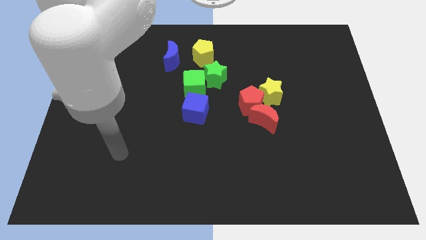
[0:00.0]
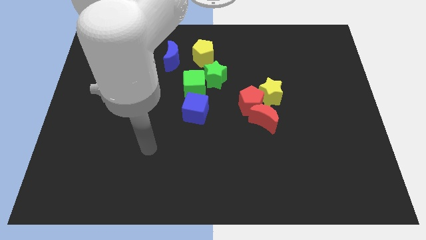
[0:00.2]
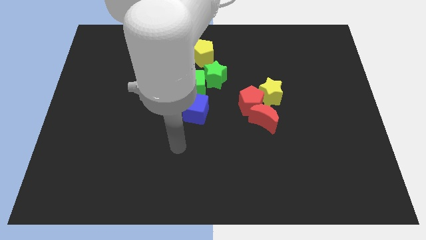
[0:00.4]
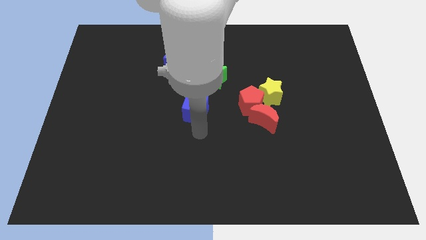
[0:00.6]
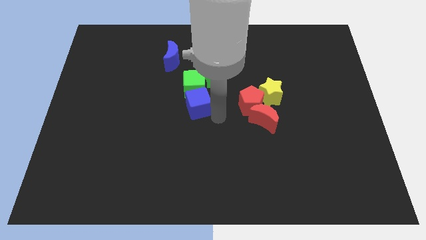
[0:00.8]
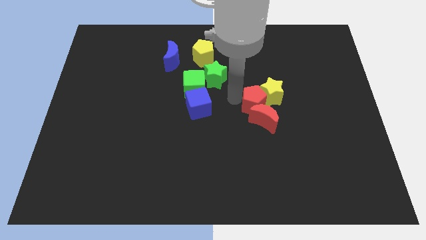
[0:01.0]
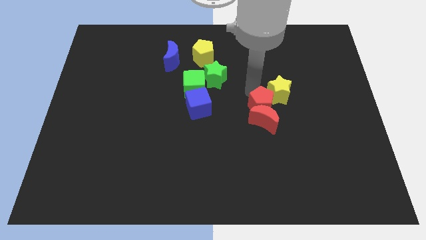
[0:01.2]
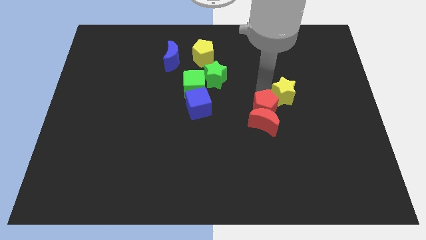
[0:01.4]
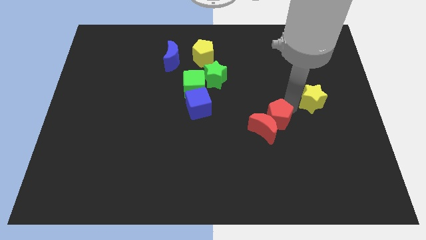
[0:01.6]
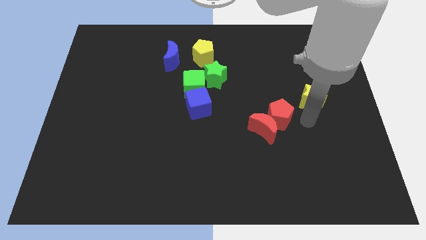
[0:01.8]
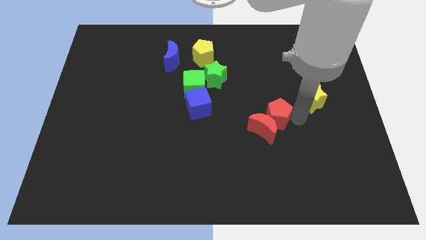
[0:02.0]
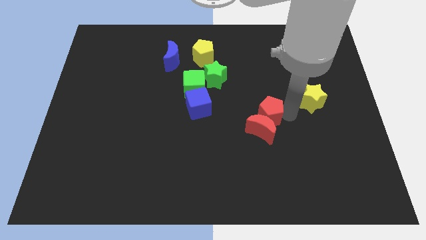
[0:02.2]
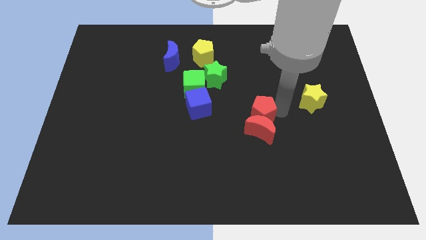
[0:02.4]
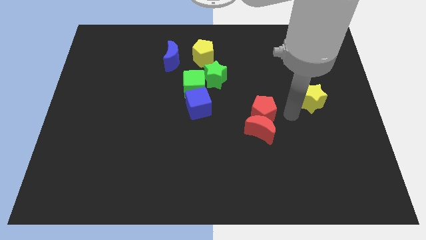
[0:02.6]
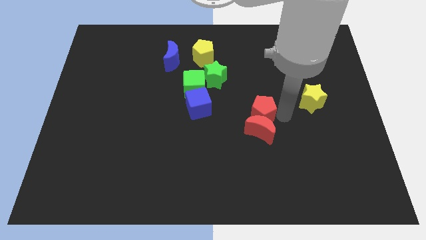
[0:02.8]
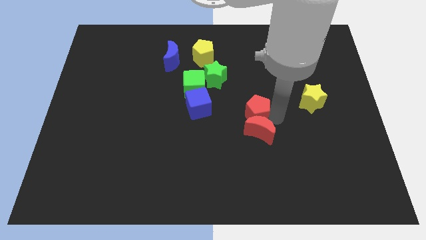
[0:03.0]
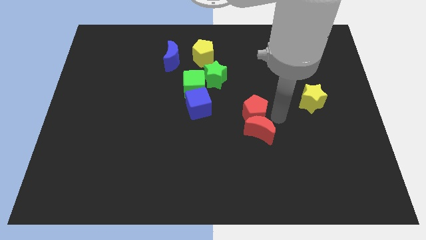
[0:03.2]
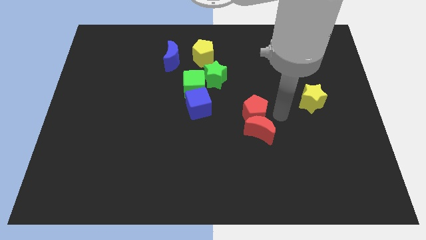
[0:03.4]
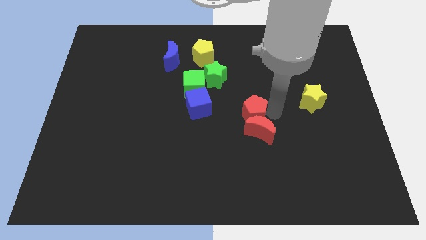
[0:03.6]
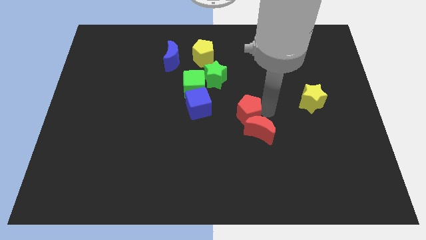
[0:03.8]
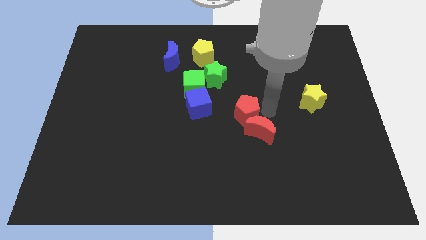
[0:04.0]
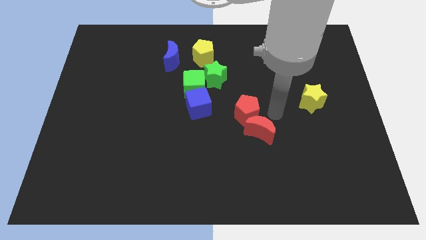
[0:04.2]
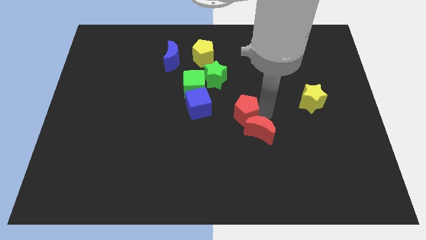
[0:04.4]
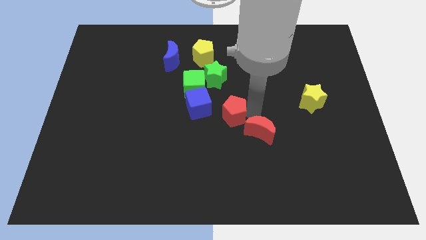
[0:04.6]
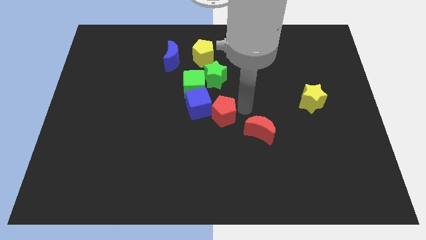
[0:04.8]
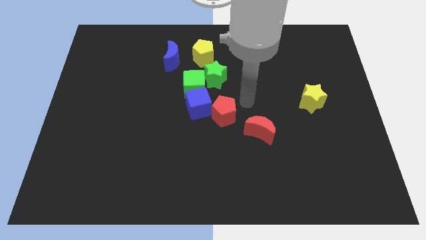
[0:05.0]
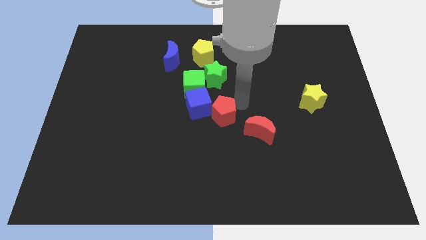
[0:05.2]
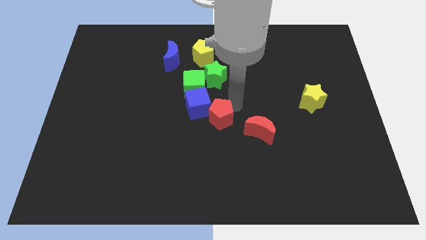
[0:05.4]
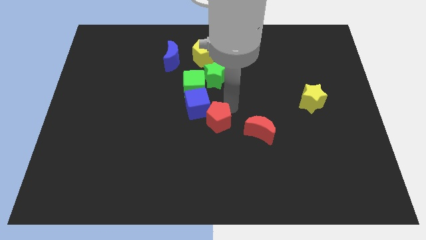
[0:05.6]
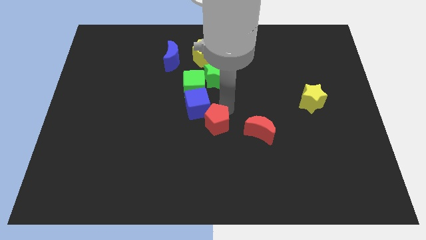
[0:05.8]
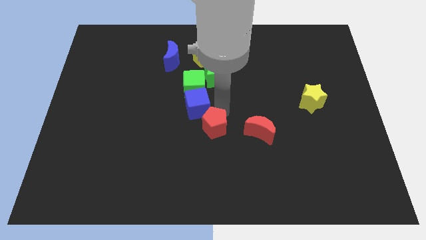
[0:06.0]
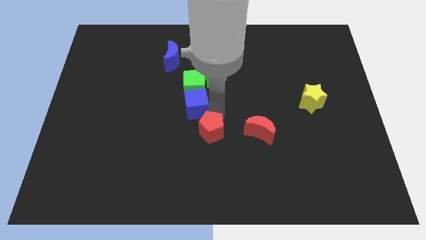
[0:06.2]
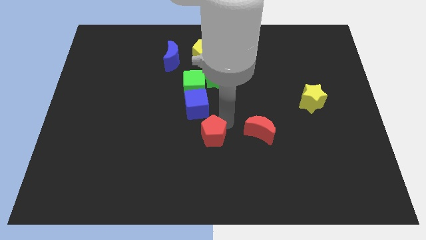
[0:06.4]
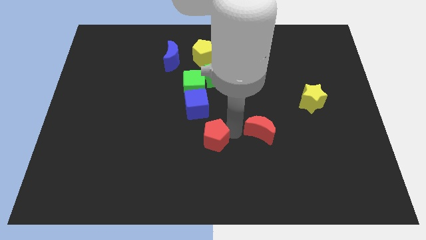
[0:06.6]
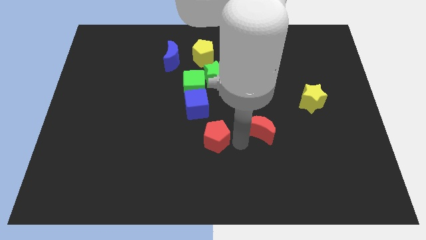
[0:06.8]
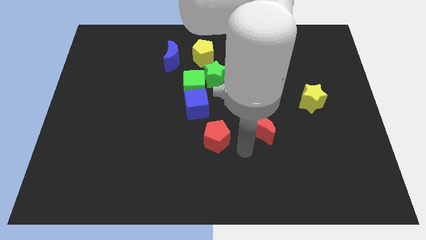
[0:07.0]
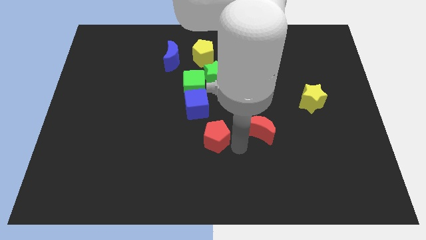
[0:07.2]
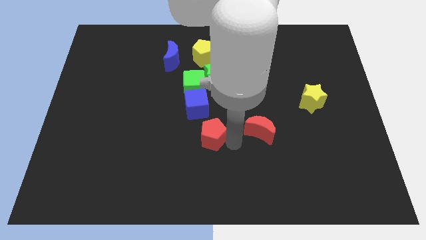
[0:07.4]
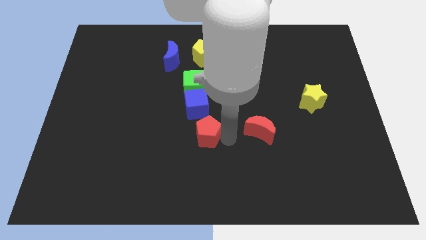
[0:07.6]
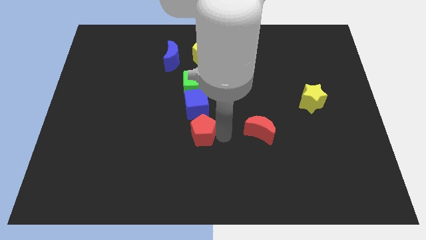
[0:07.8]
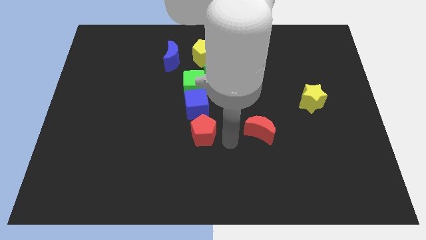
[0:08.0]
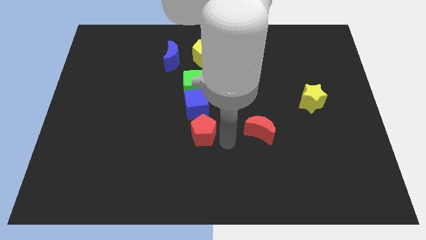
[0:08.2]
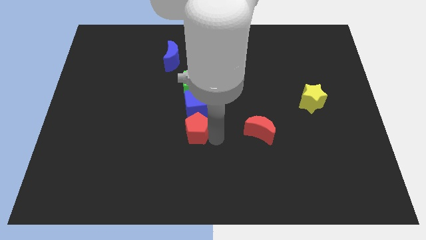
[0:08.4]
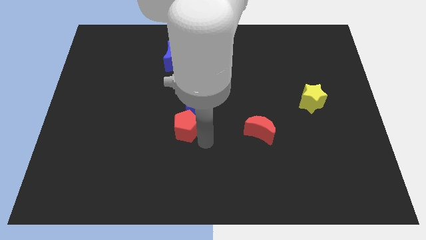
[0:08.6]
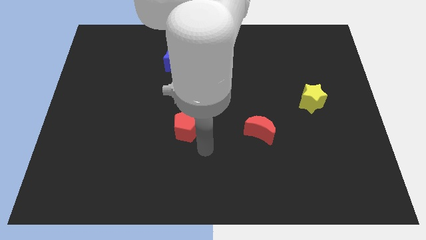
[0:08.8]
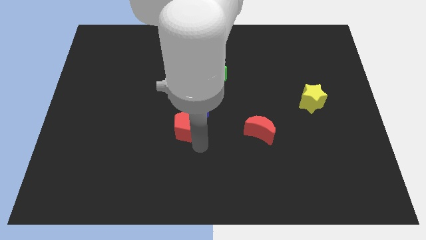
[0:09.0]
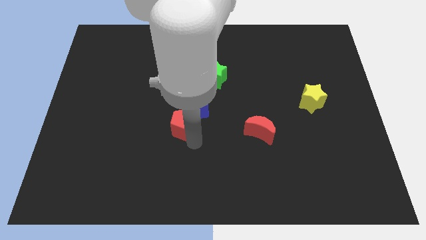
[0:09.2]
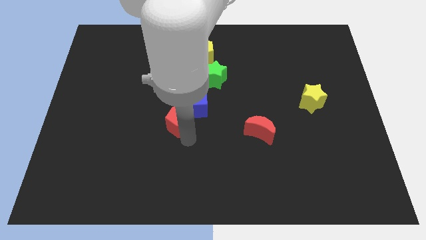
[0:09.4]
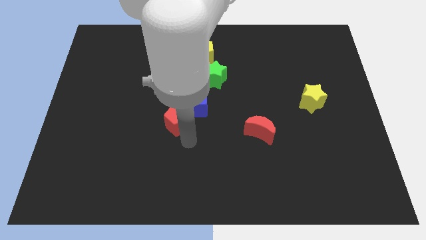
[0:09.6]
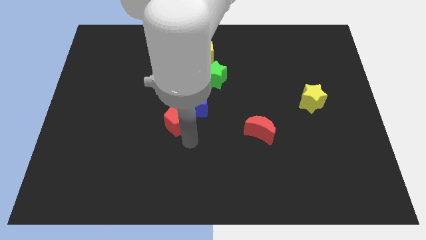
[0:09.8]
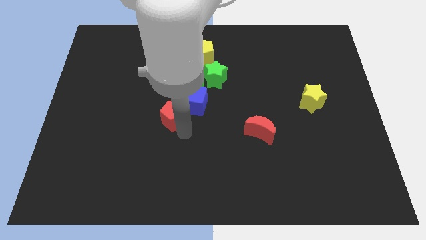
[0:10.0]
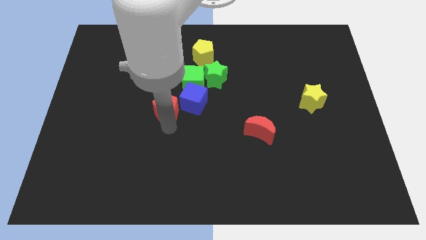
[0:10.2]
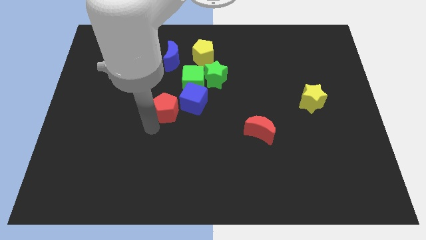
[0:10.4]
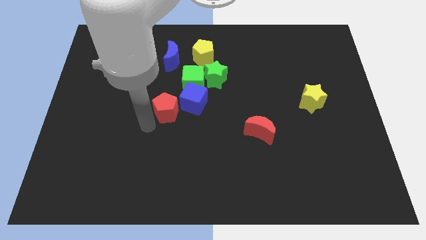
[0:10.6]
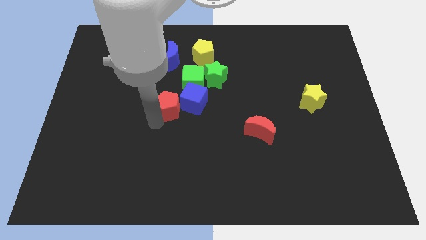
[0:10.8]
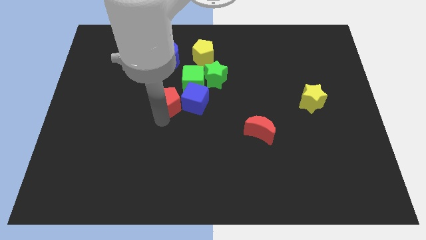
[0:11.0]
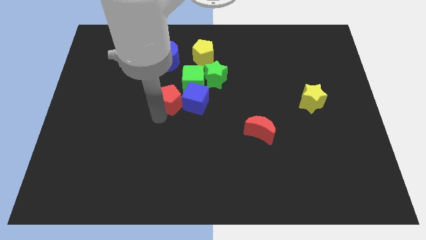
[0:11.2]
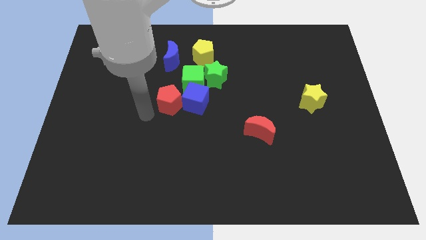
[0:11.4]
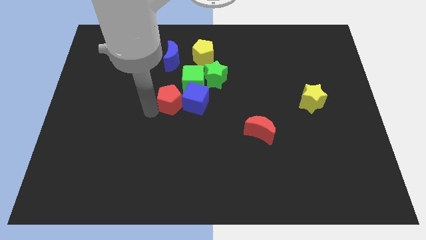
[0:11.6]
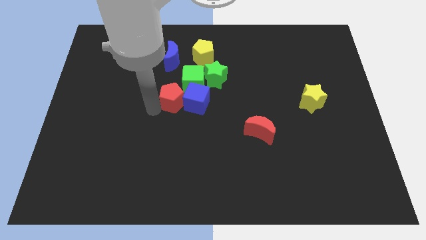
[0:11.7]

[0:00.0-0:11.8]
push the red pentagon diagonally down and to the left of the green star

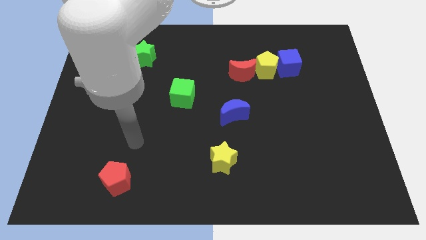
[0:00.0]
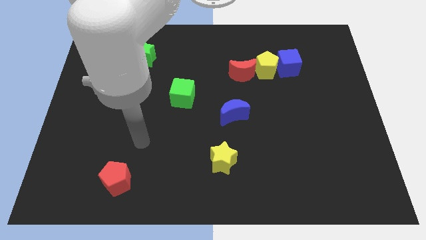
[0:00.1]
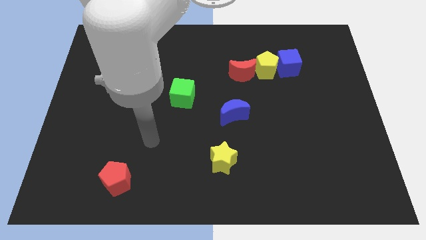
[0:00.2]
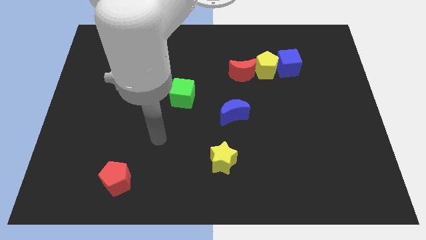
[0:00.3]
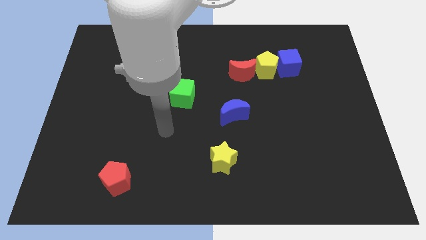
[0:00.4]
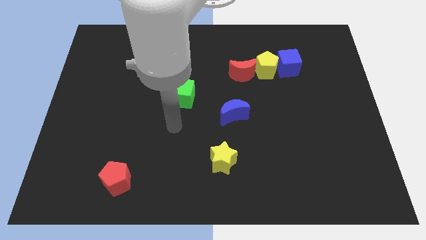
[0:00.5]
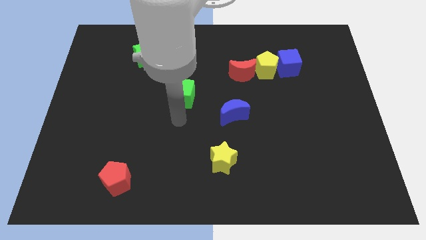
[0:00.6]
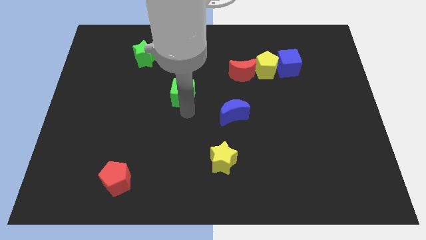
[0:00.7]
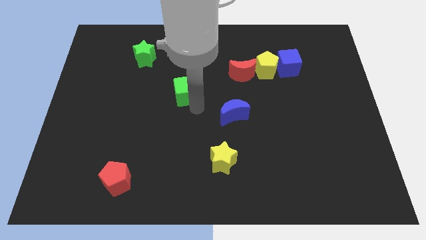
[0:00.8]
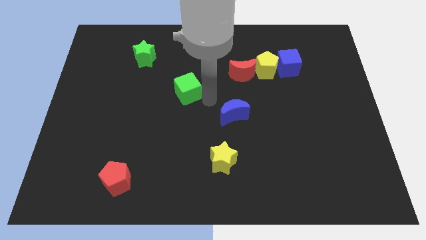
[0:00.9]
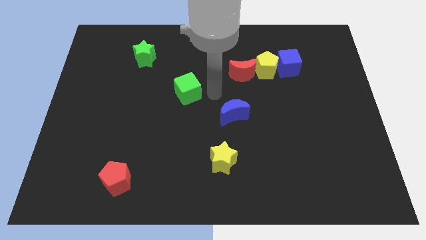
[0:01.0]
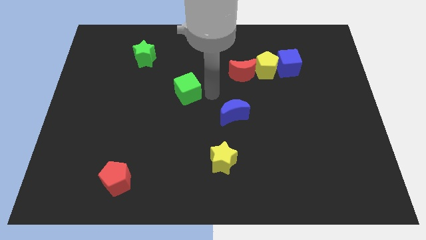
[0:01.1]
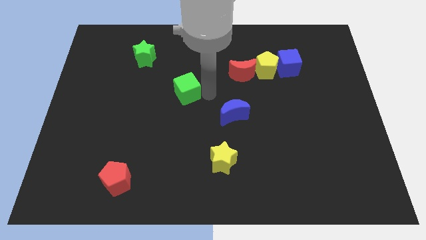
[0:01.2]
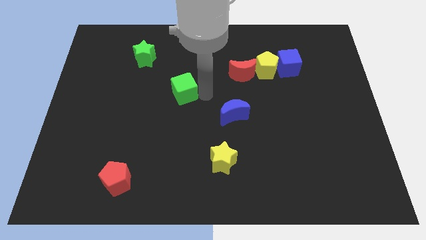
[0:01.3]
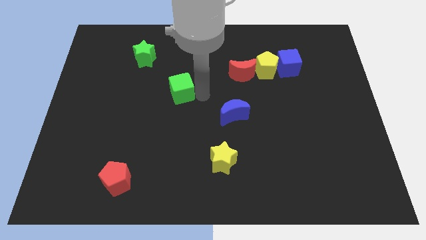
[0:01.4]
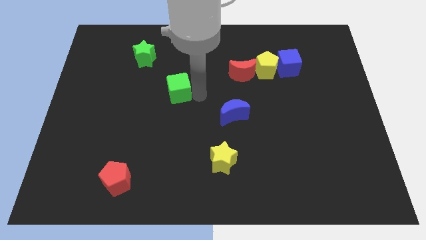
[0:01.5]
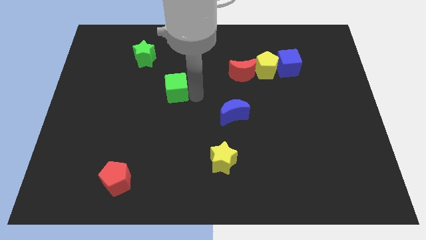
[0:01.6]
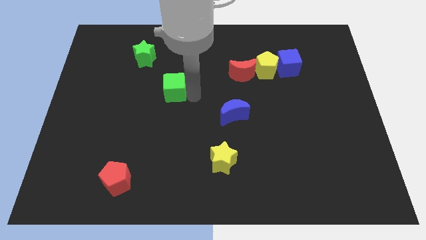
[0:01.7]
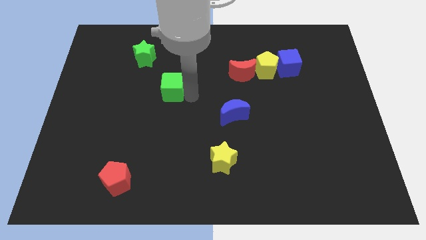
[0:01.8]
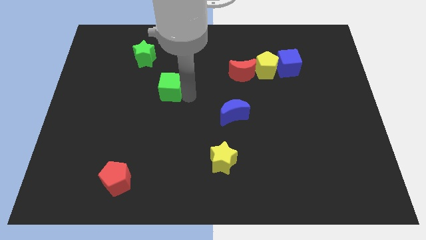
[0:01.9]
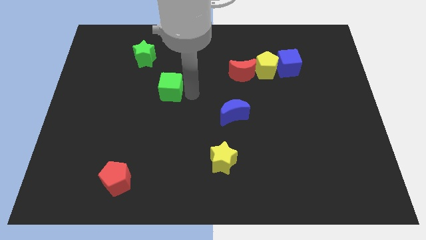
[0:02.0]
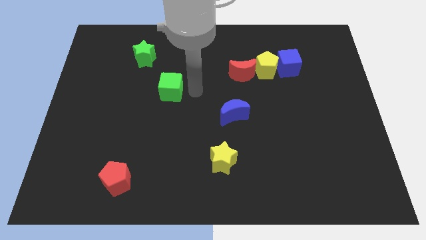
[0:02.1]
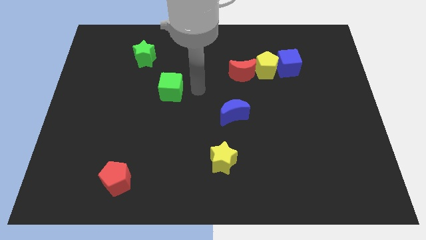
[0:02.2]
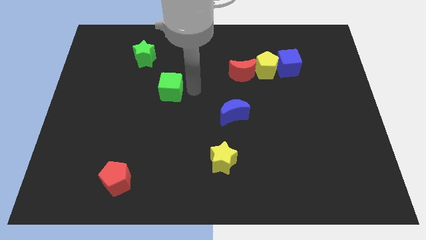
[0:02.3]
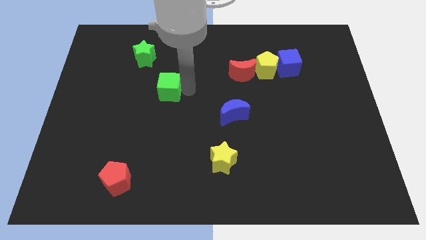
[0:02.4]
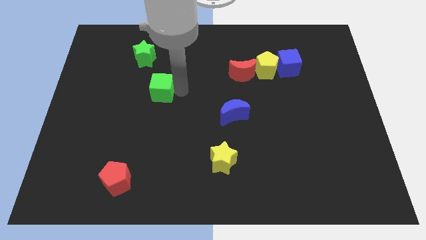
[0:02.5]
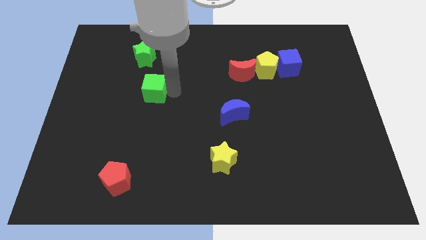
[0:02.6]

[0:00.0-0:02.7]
put the green cube to the bottom of the green star

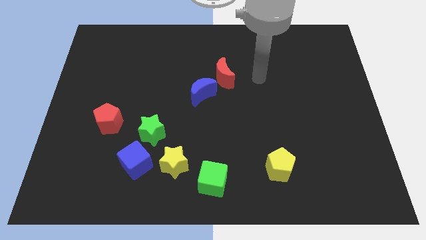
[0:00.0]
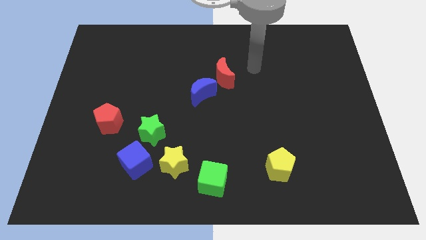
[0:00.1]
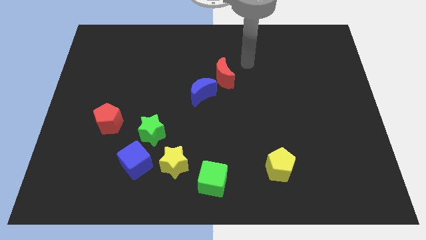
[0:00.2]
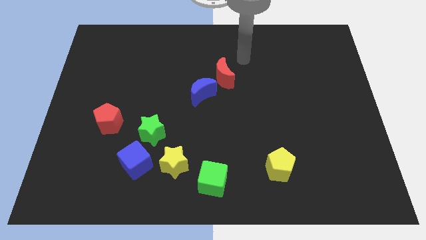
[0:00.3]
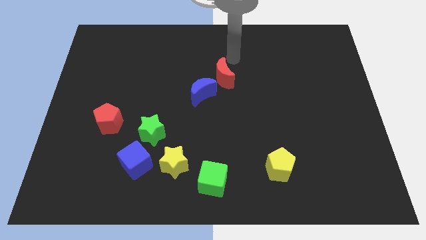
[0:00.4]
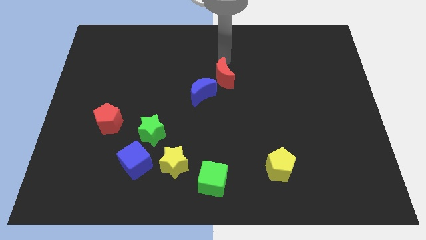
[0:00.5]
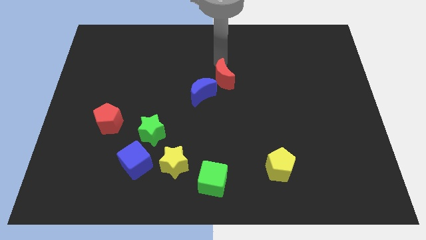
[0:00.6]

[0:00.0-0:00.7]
slide the red moon to the right side of the blue moon
